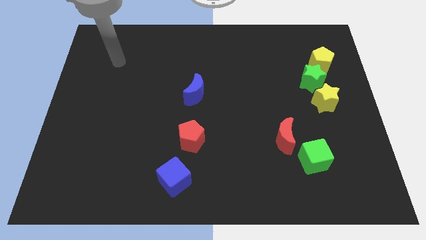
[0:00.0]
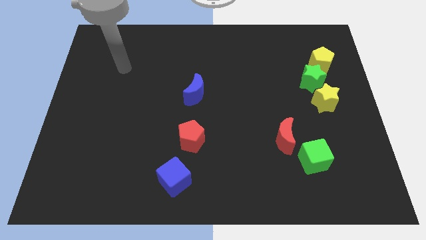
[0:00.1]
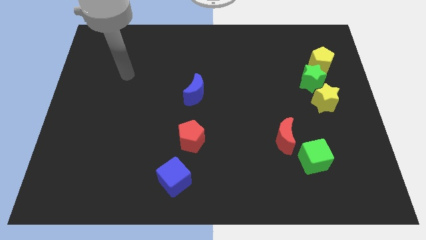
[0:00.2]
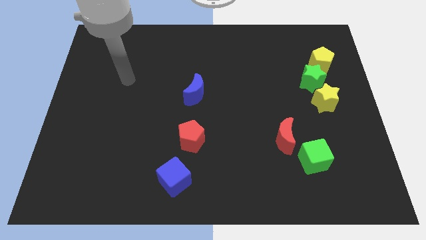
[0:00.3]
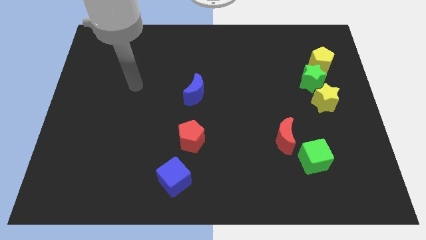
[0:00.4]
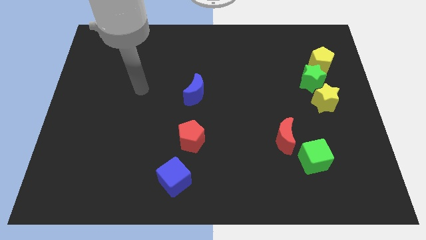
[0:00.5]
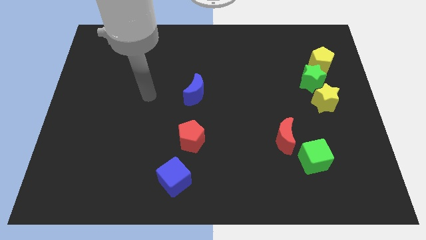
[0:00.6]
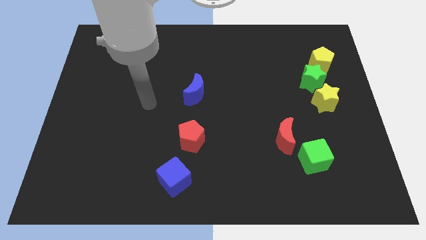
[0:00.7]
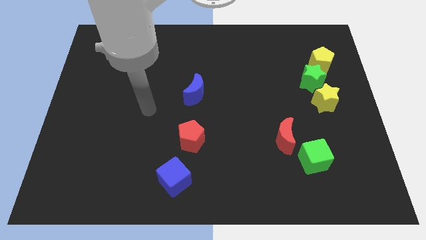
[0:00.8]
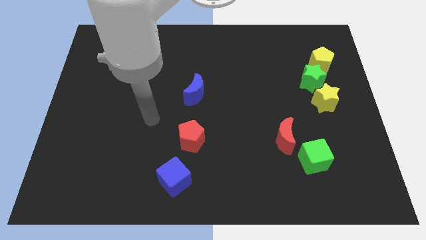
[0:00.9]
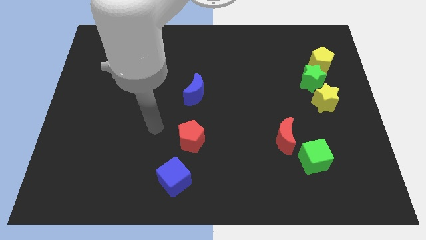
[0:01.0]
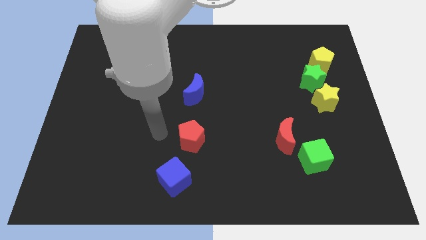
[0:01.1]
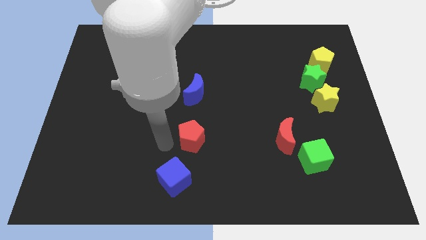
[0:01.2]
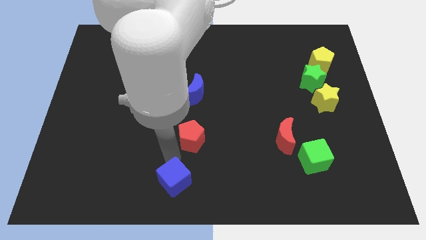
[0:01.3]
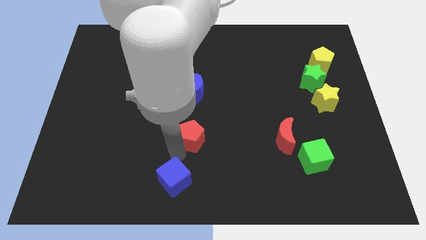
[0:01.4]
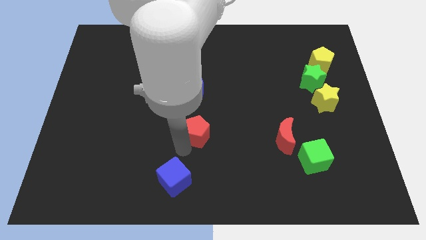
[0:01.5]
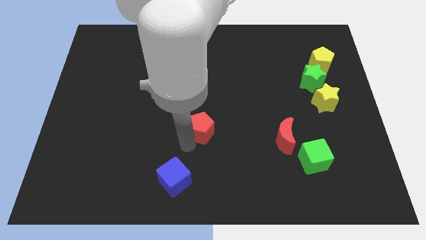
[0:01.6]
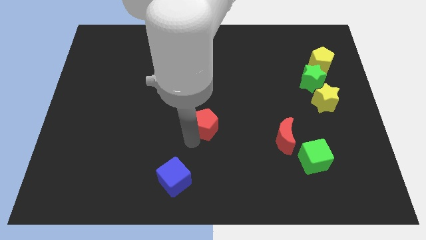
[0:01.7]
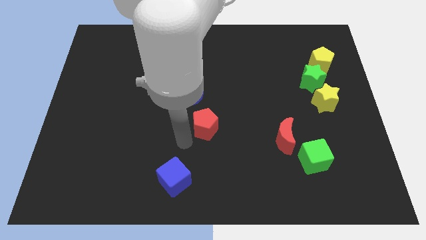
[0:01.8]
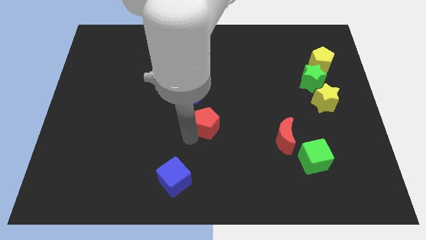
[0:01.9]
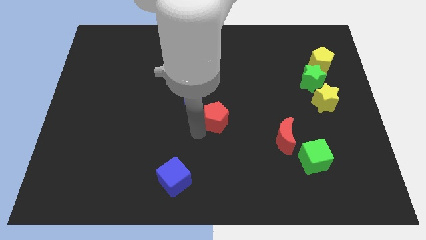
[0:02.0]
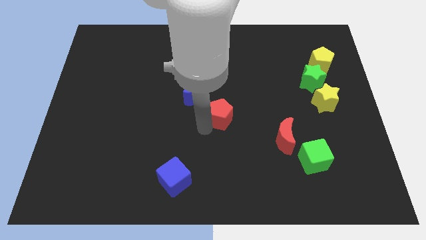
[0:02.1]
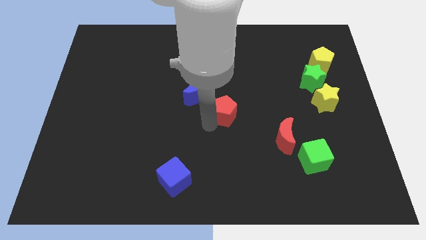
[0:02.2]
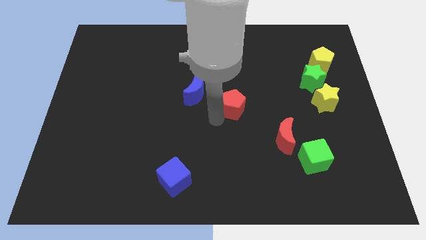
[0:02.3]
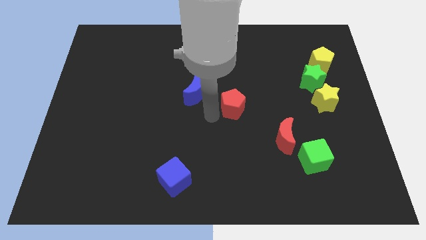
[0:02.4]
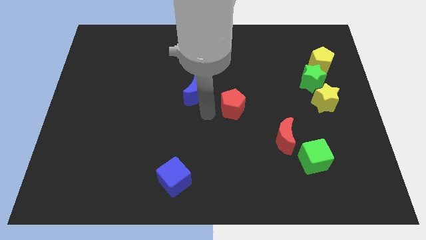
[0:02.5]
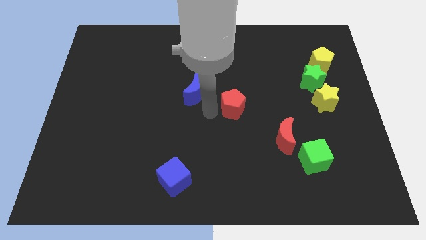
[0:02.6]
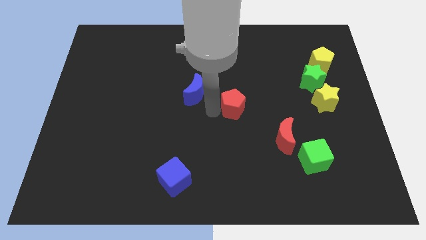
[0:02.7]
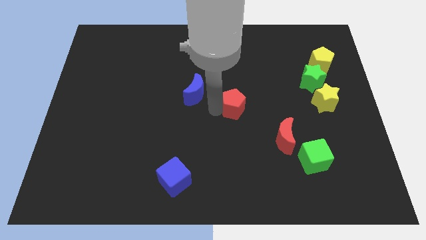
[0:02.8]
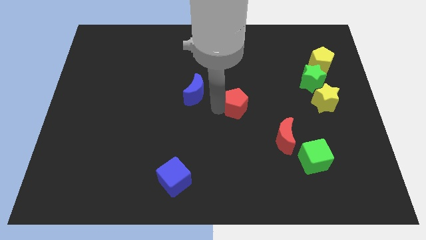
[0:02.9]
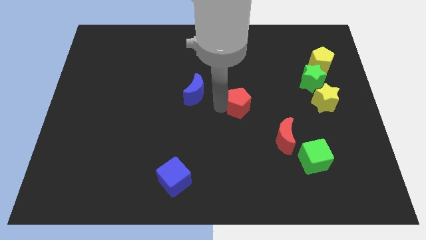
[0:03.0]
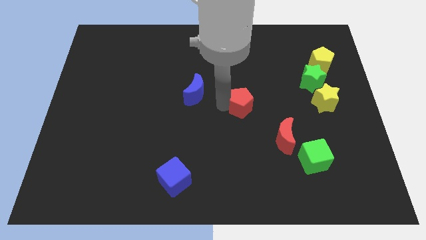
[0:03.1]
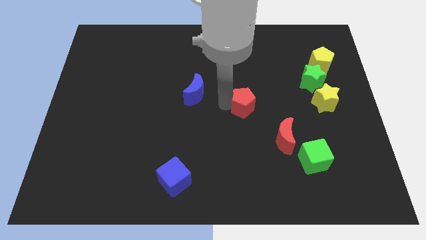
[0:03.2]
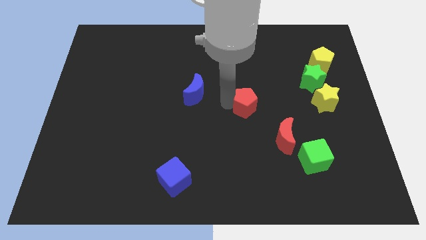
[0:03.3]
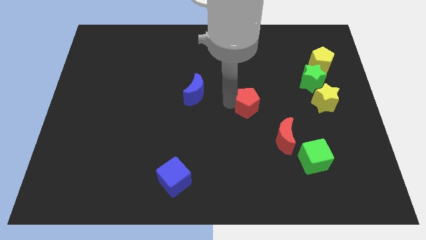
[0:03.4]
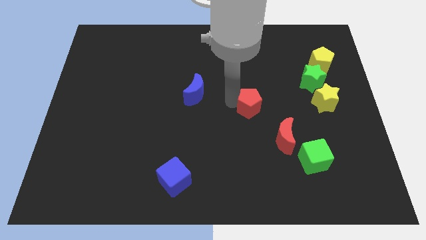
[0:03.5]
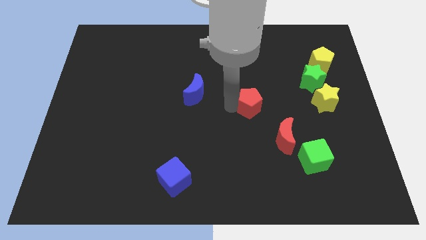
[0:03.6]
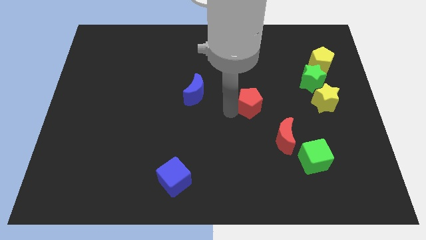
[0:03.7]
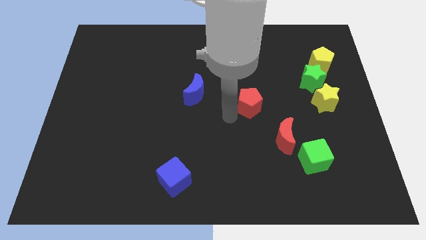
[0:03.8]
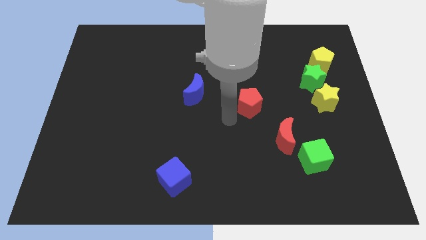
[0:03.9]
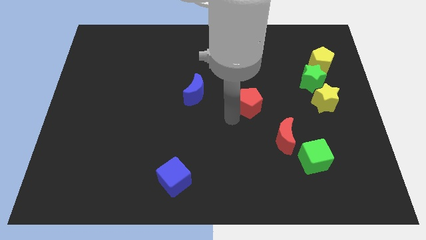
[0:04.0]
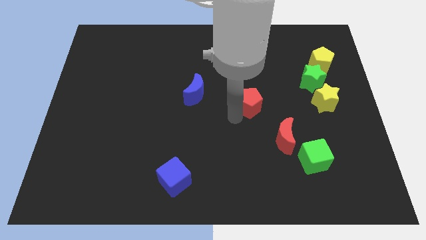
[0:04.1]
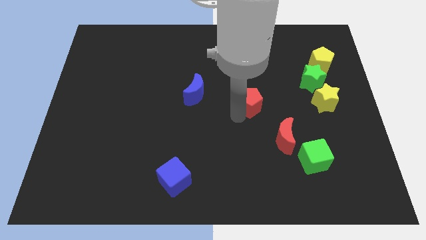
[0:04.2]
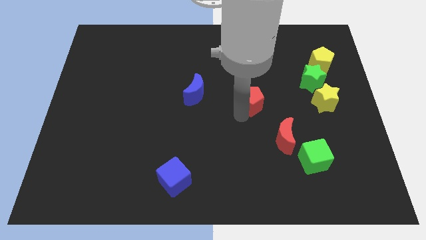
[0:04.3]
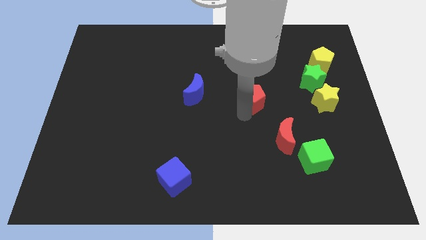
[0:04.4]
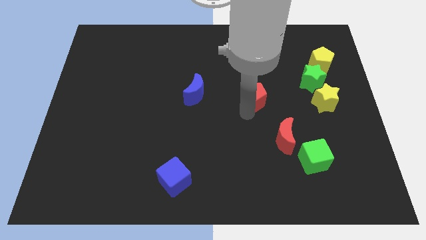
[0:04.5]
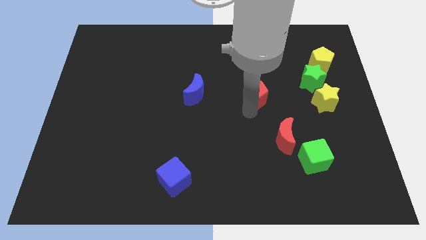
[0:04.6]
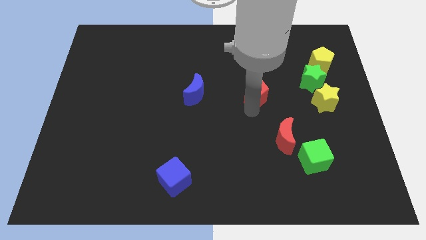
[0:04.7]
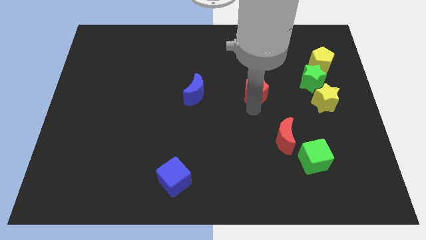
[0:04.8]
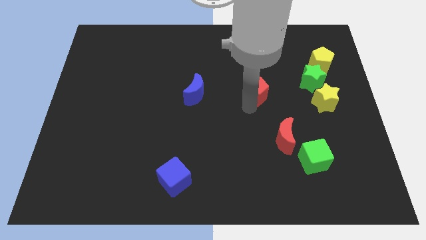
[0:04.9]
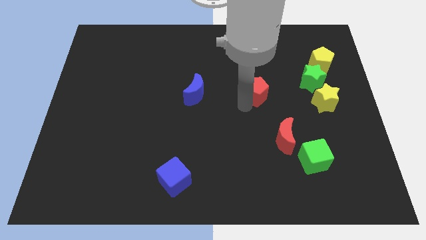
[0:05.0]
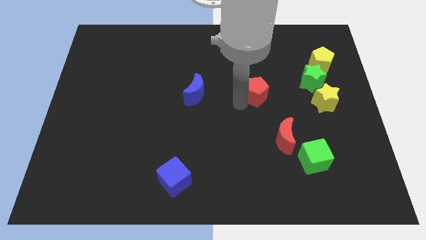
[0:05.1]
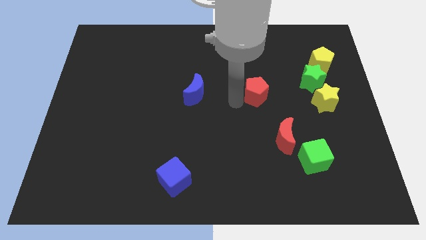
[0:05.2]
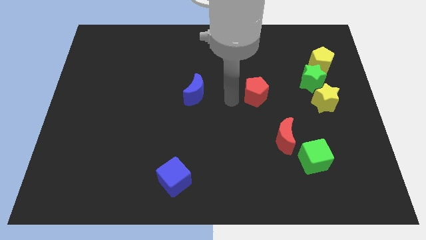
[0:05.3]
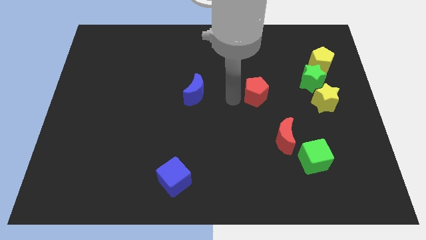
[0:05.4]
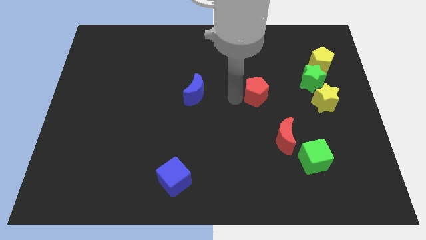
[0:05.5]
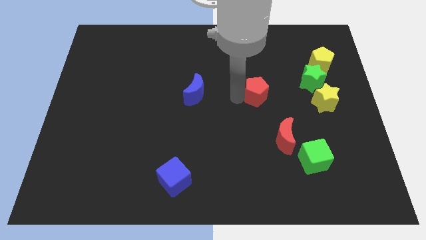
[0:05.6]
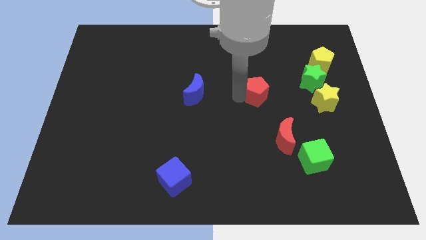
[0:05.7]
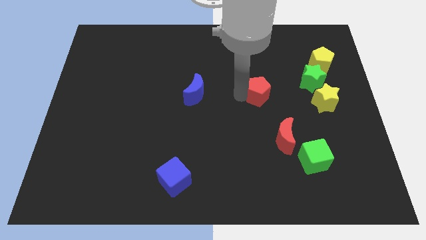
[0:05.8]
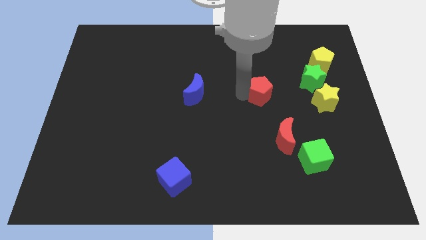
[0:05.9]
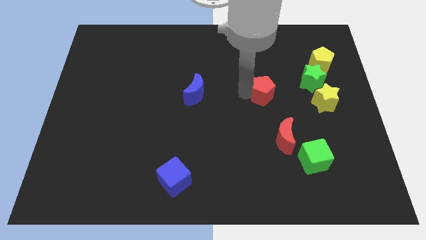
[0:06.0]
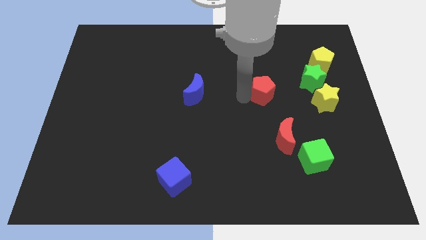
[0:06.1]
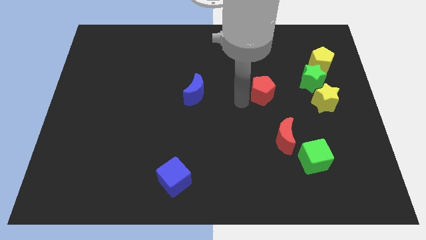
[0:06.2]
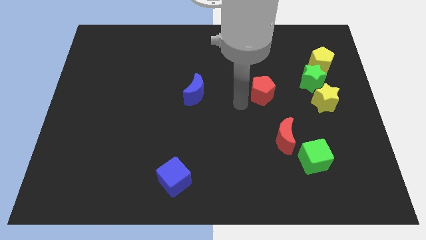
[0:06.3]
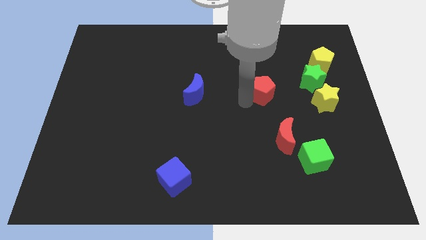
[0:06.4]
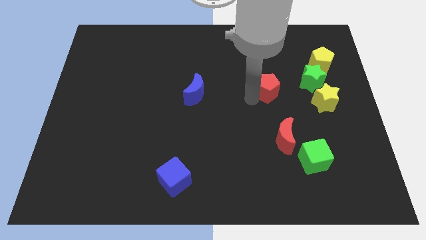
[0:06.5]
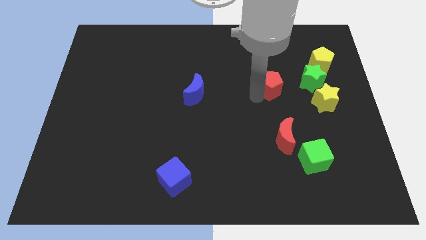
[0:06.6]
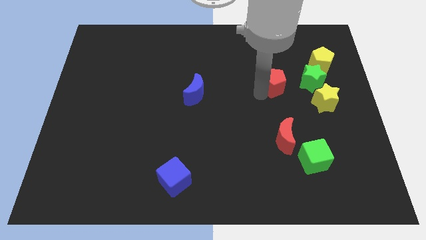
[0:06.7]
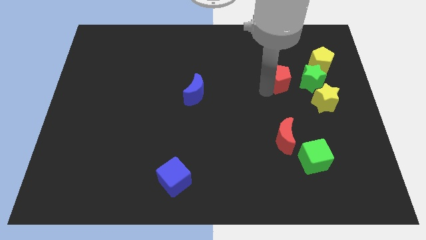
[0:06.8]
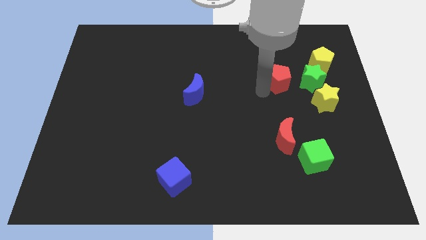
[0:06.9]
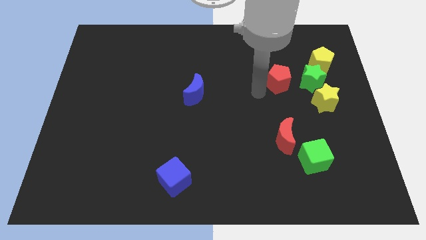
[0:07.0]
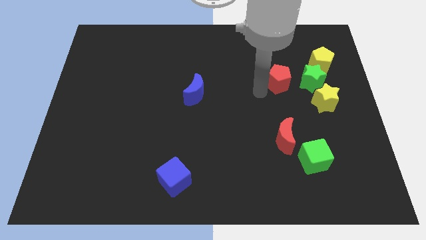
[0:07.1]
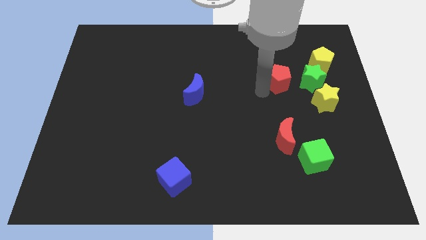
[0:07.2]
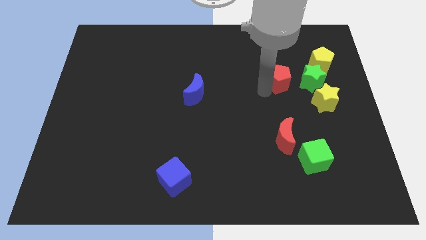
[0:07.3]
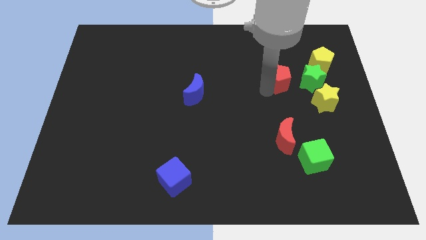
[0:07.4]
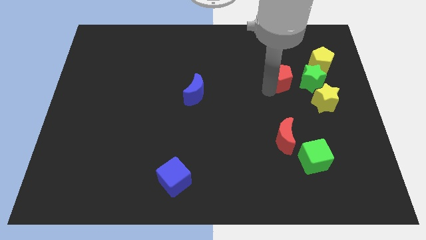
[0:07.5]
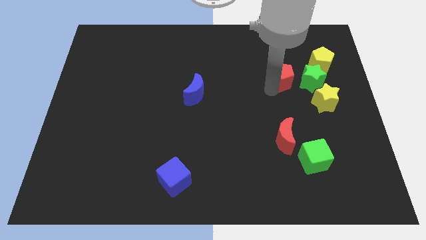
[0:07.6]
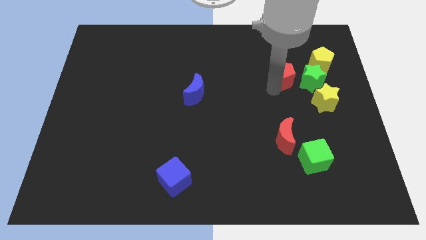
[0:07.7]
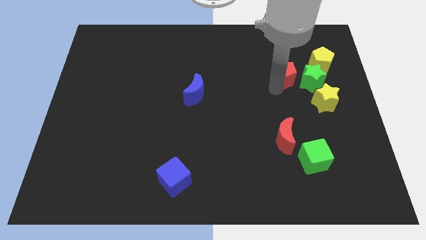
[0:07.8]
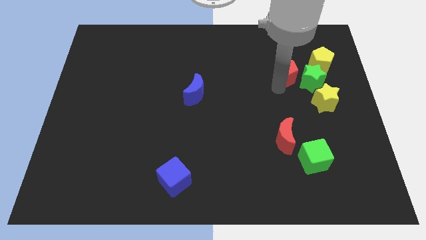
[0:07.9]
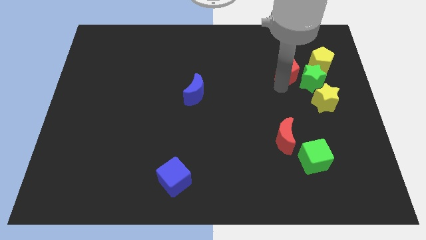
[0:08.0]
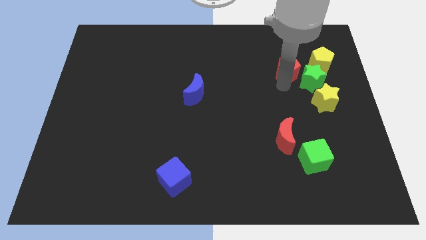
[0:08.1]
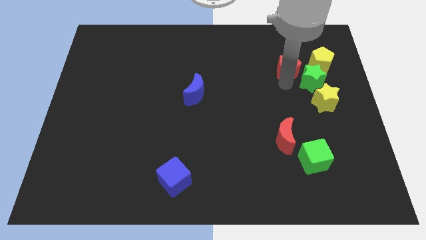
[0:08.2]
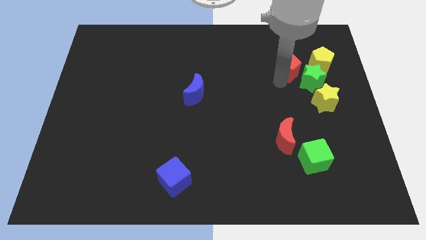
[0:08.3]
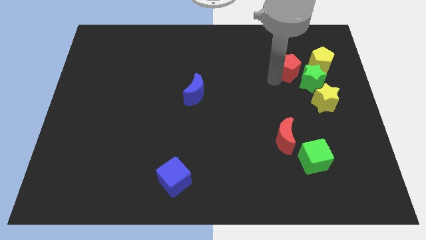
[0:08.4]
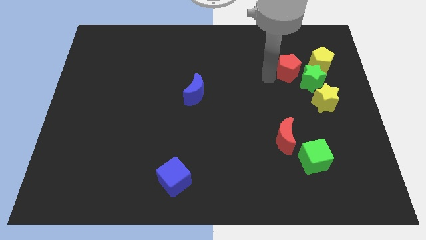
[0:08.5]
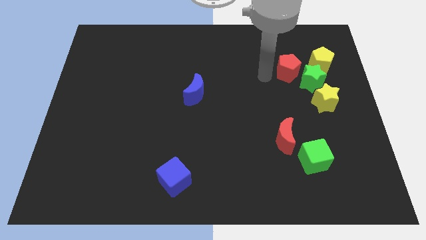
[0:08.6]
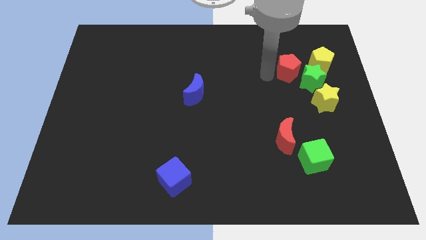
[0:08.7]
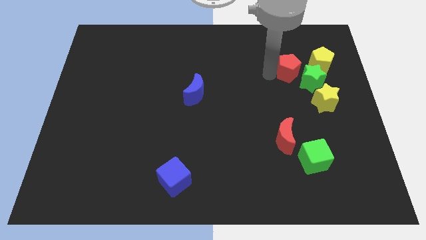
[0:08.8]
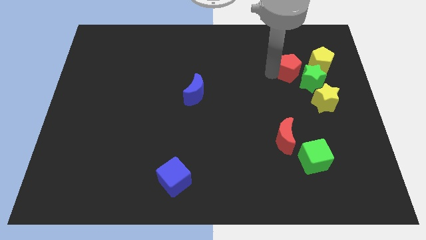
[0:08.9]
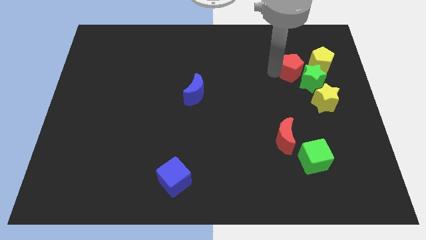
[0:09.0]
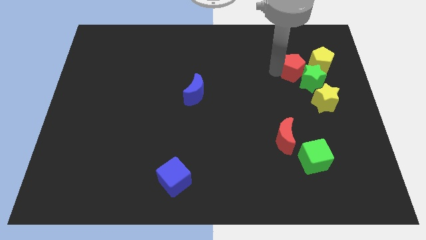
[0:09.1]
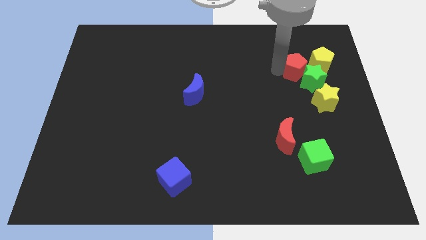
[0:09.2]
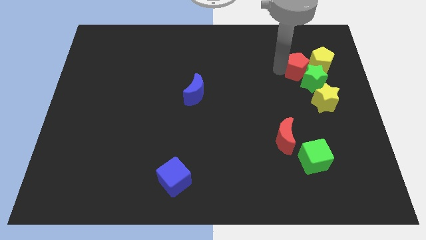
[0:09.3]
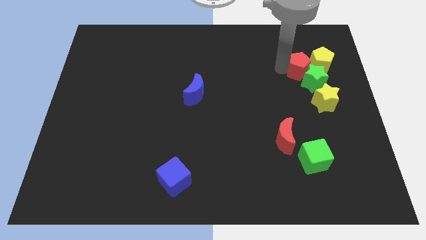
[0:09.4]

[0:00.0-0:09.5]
move the red pentagon to the yellow pentagon
